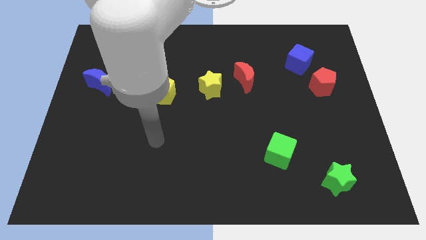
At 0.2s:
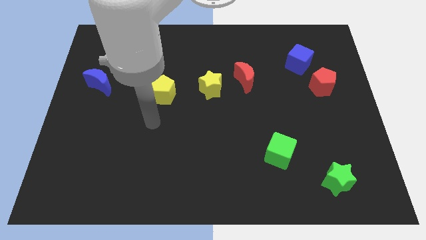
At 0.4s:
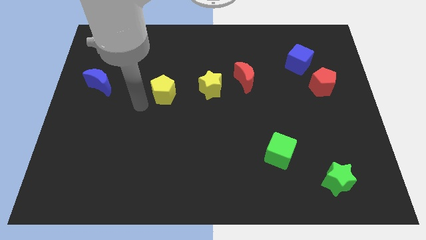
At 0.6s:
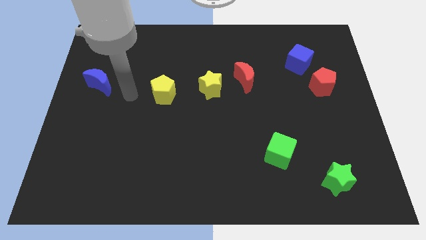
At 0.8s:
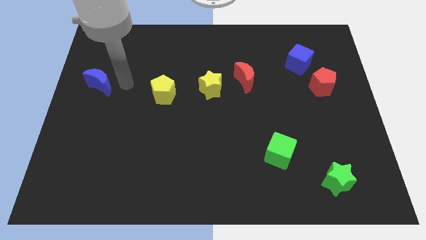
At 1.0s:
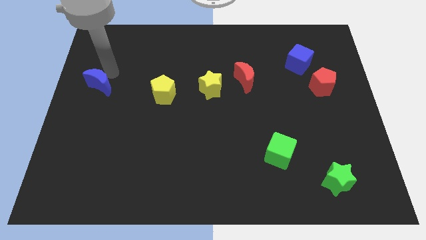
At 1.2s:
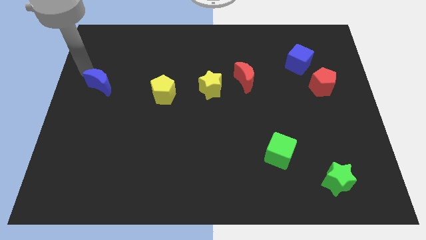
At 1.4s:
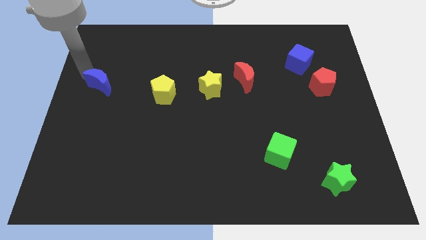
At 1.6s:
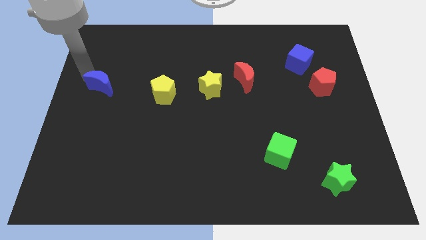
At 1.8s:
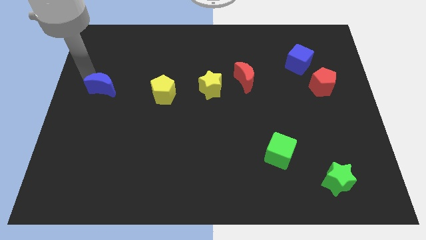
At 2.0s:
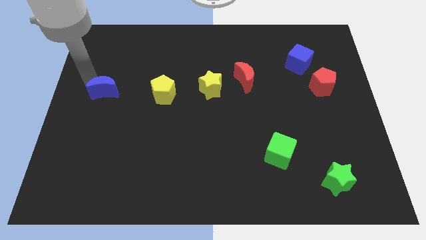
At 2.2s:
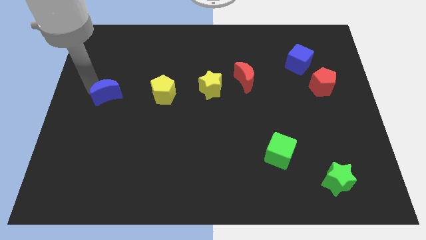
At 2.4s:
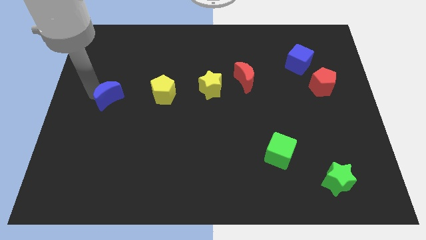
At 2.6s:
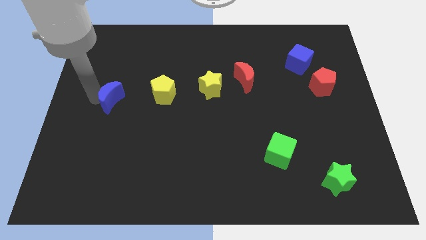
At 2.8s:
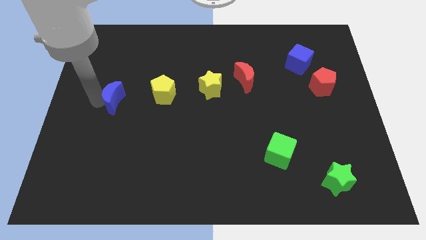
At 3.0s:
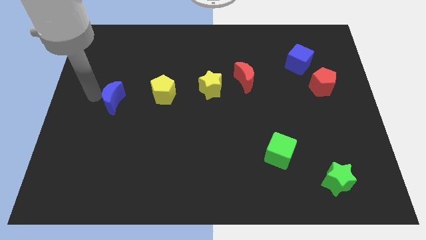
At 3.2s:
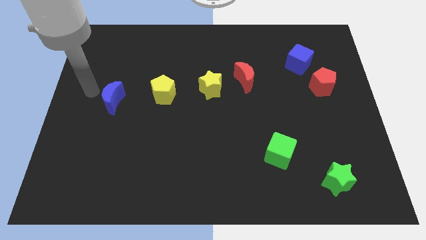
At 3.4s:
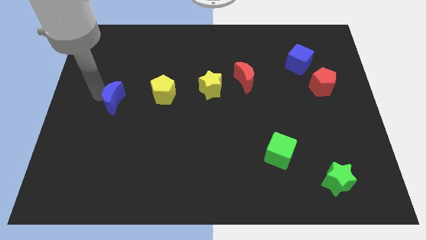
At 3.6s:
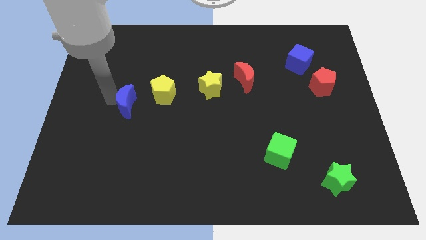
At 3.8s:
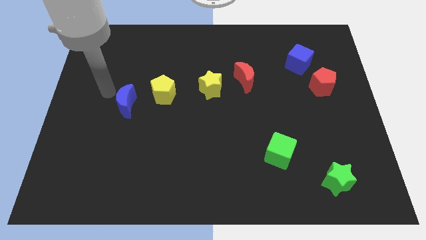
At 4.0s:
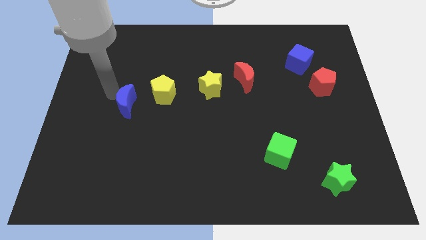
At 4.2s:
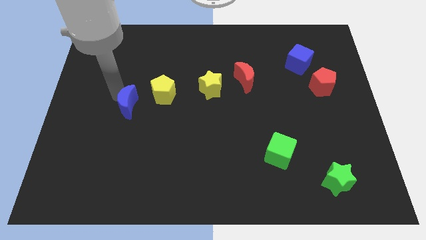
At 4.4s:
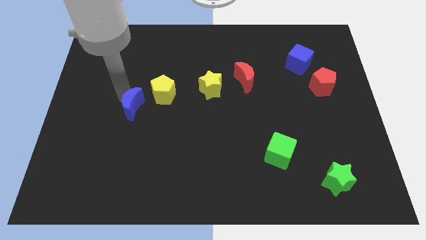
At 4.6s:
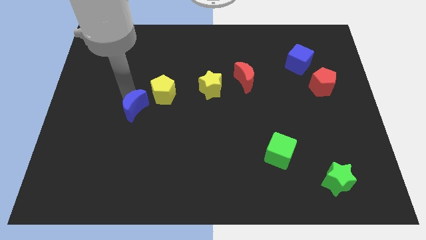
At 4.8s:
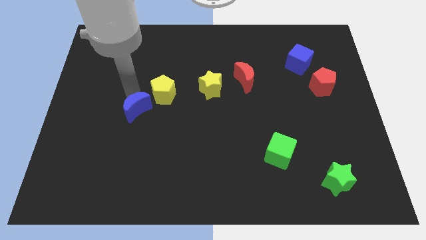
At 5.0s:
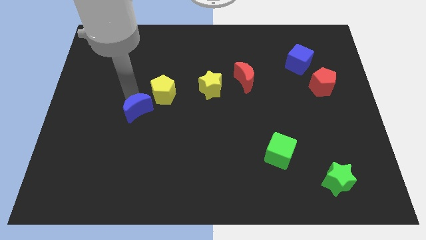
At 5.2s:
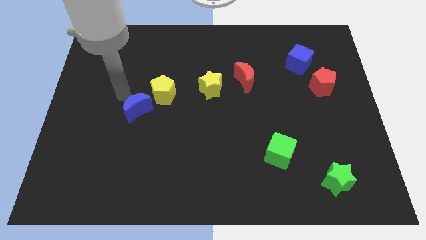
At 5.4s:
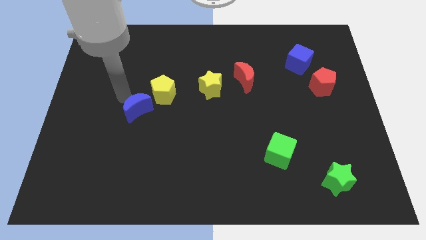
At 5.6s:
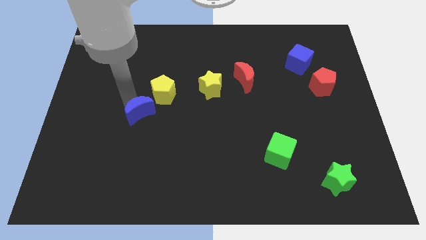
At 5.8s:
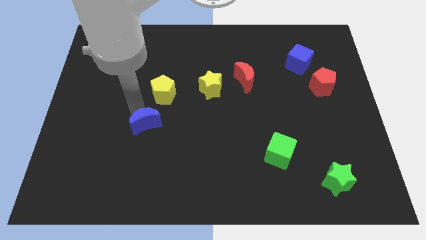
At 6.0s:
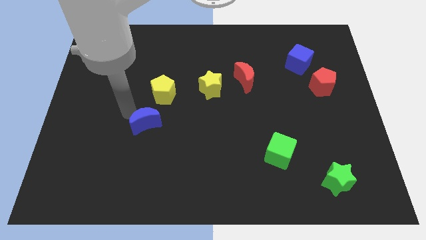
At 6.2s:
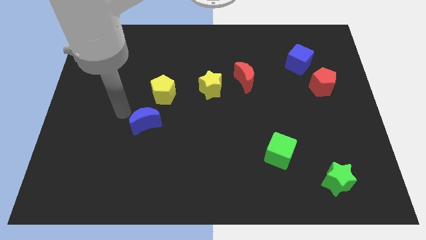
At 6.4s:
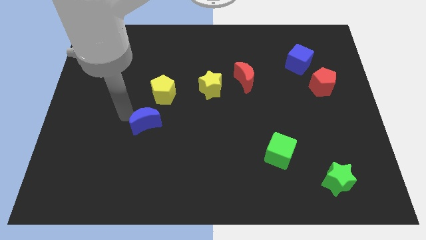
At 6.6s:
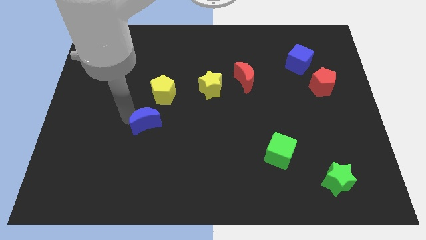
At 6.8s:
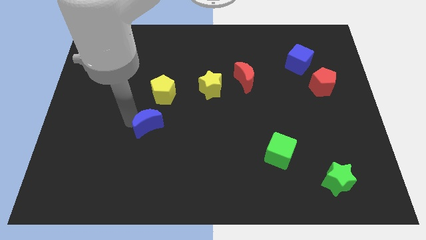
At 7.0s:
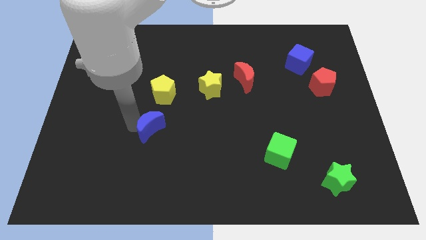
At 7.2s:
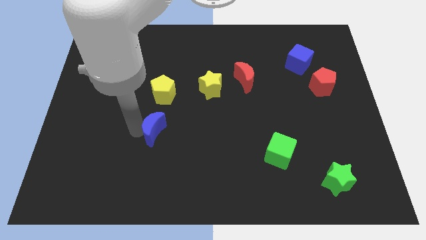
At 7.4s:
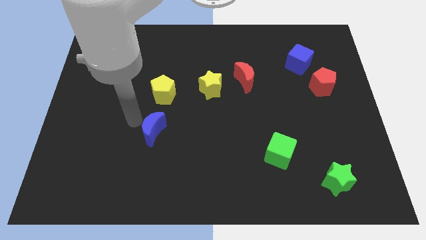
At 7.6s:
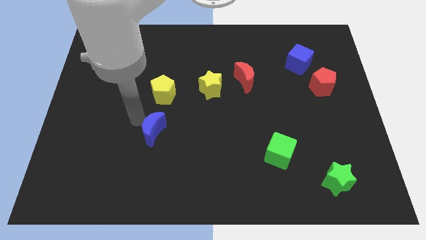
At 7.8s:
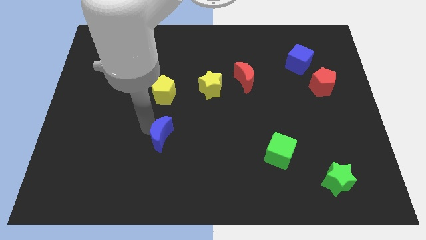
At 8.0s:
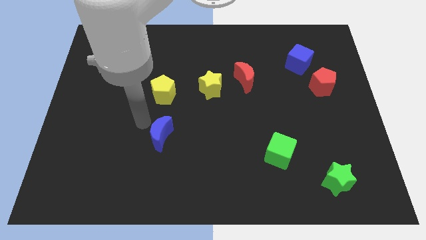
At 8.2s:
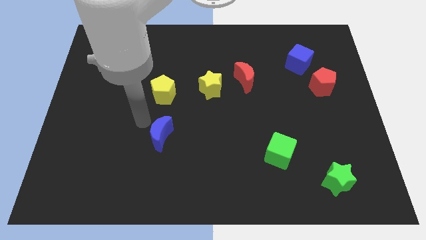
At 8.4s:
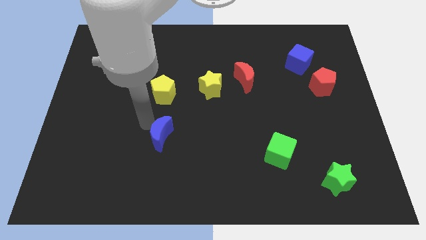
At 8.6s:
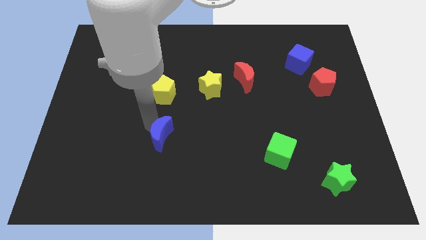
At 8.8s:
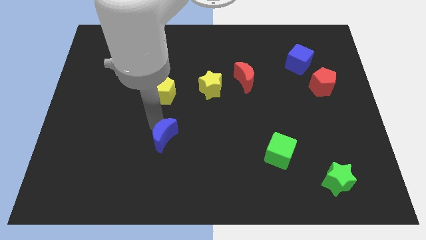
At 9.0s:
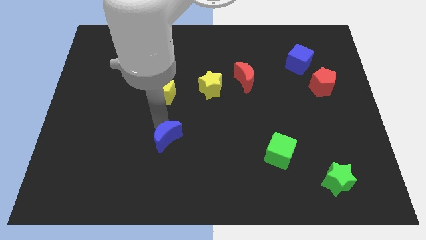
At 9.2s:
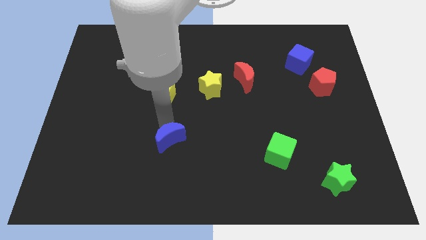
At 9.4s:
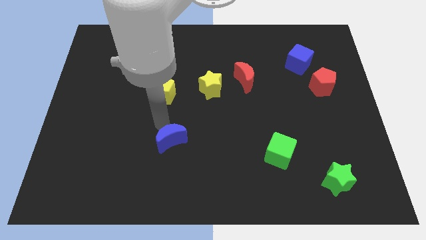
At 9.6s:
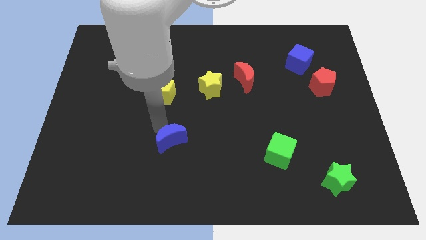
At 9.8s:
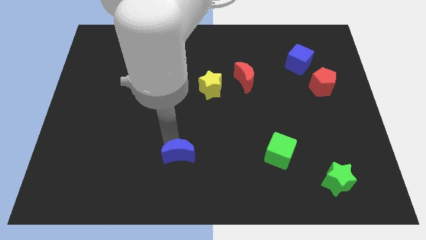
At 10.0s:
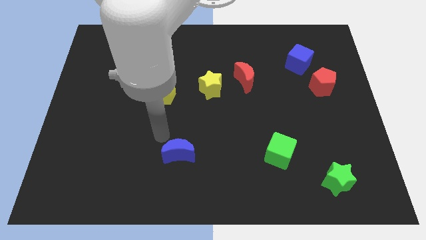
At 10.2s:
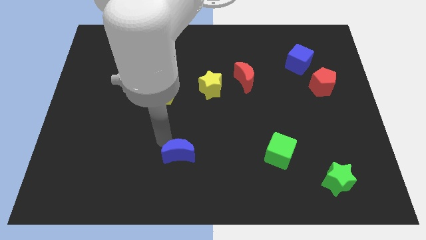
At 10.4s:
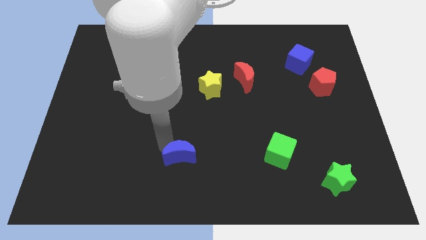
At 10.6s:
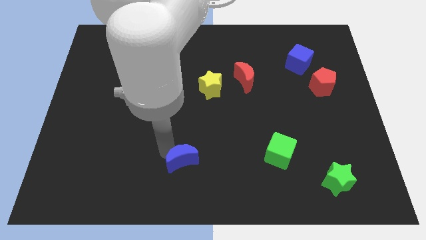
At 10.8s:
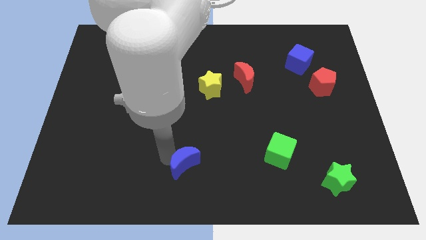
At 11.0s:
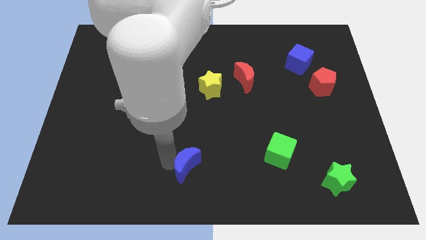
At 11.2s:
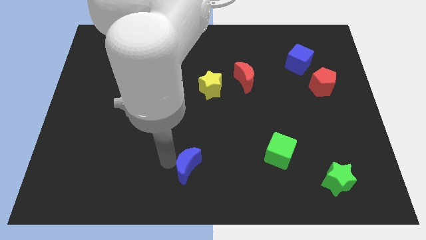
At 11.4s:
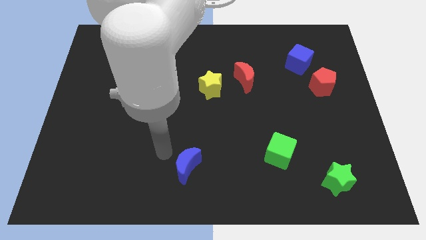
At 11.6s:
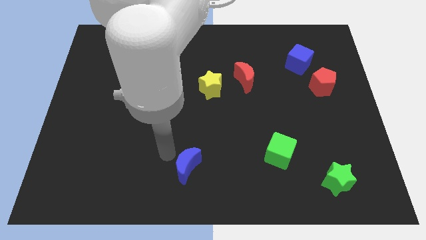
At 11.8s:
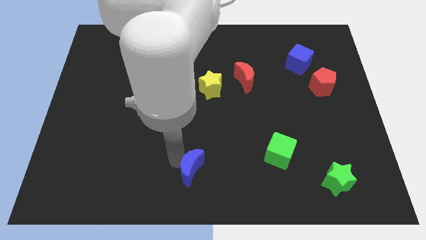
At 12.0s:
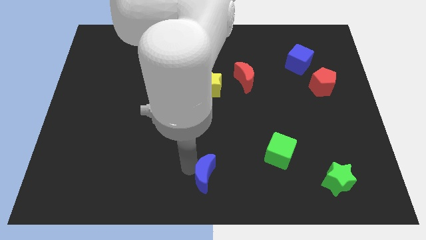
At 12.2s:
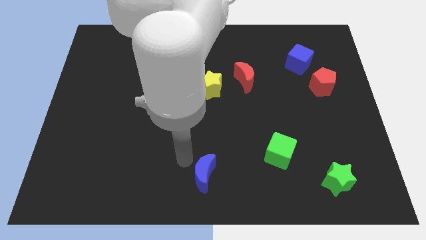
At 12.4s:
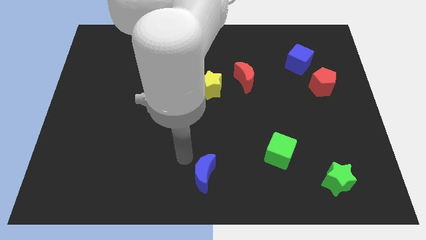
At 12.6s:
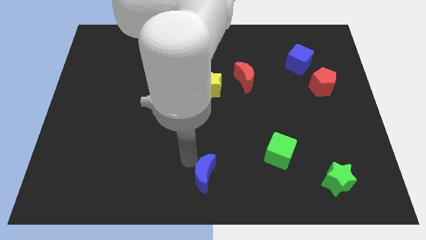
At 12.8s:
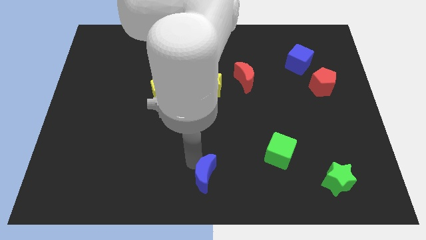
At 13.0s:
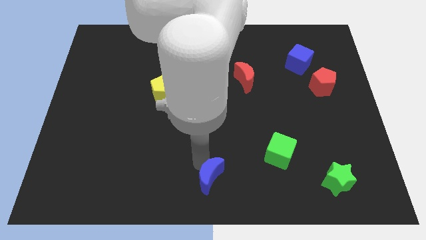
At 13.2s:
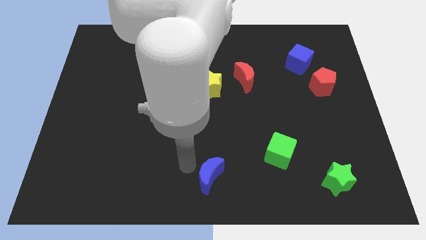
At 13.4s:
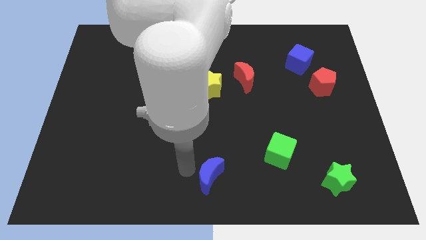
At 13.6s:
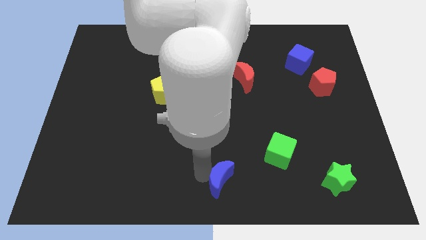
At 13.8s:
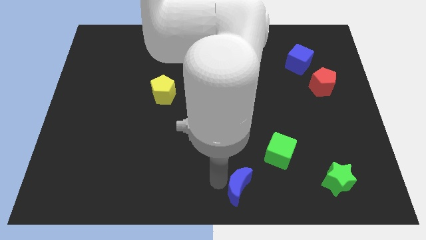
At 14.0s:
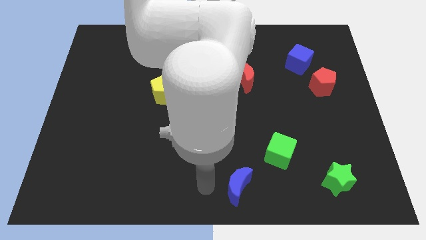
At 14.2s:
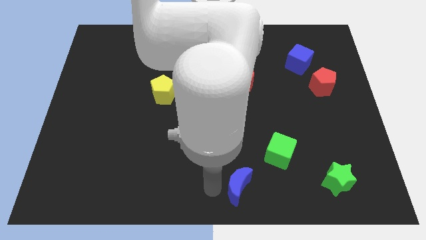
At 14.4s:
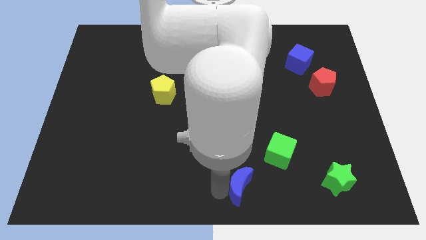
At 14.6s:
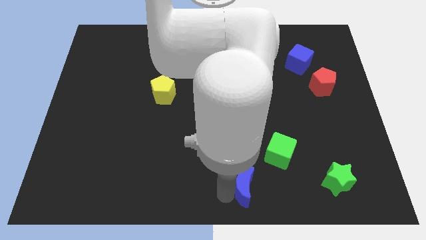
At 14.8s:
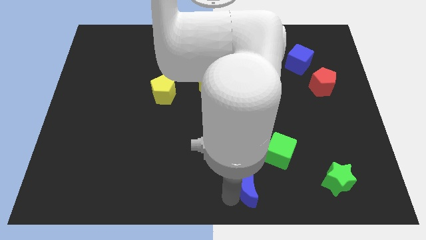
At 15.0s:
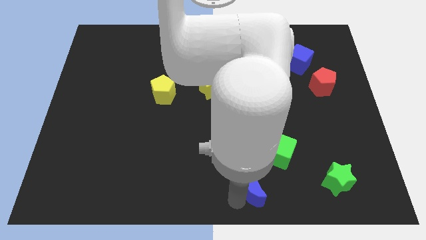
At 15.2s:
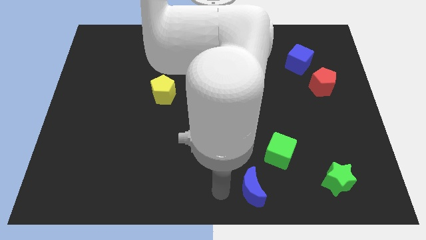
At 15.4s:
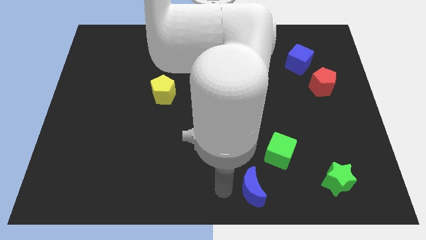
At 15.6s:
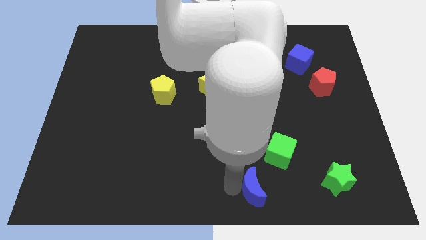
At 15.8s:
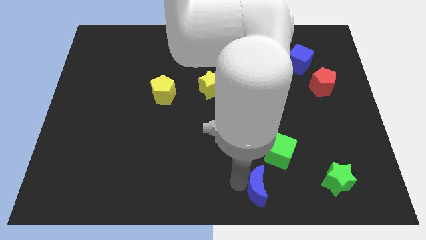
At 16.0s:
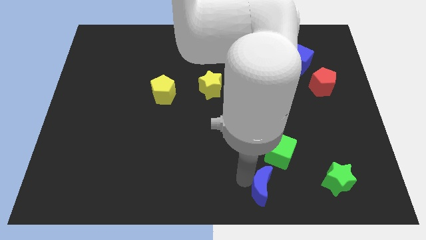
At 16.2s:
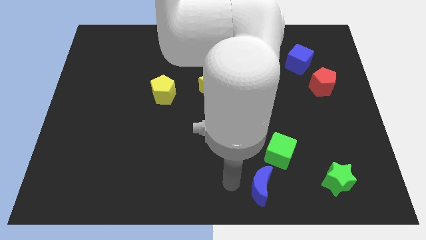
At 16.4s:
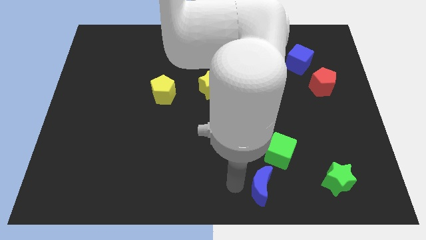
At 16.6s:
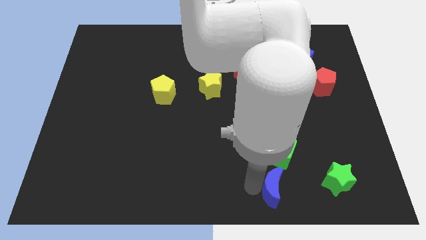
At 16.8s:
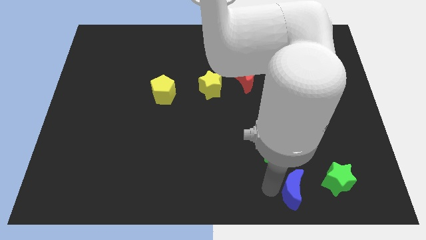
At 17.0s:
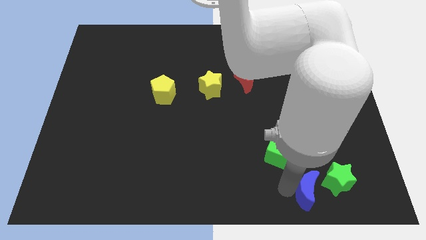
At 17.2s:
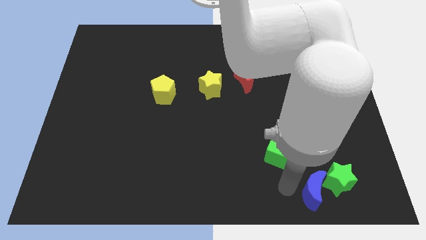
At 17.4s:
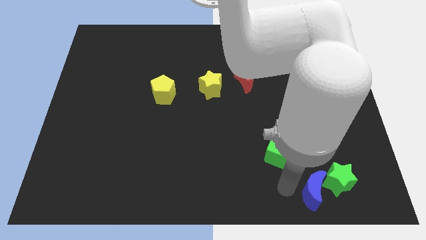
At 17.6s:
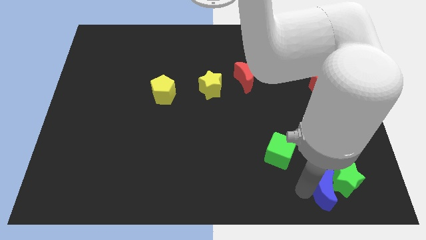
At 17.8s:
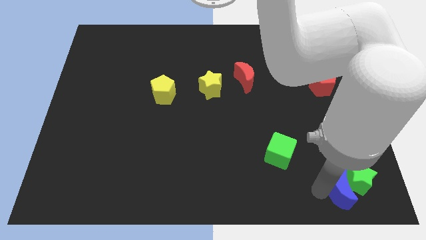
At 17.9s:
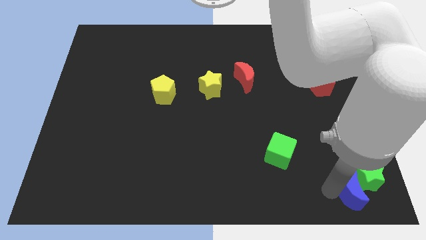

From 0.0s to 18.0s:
push the blue moon to the bottom right of the board
